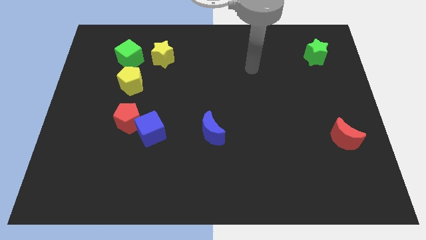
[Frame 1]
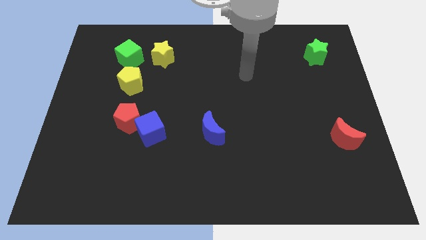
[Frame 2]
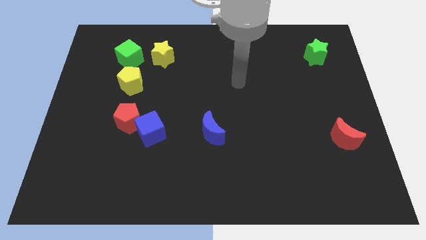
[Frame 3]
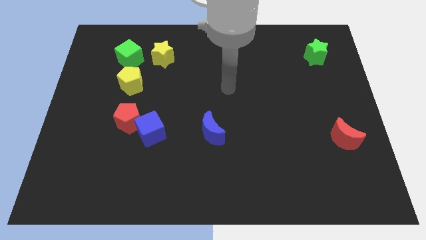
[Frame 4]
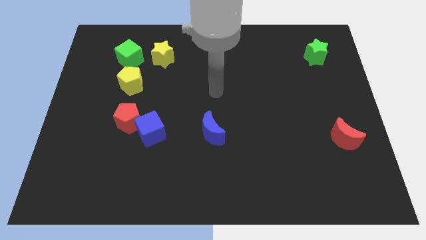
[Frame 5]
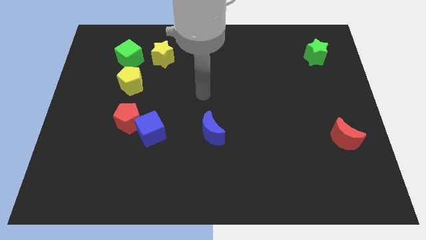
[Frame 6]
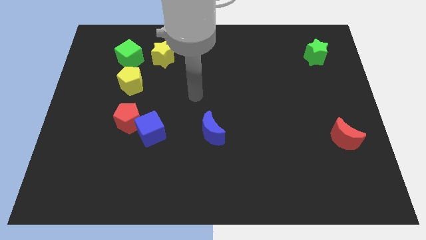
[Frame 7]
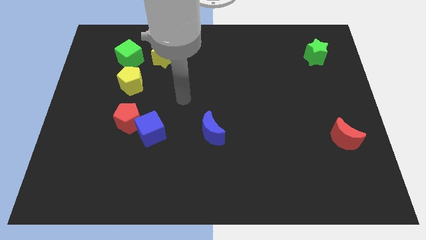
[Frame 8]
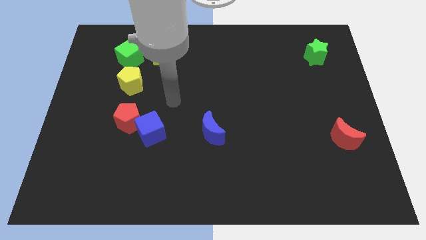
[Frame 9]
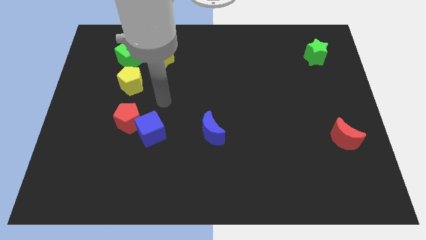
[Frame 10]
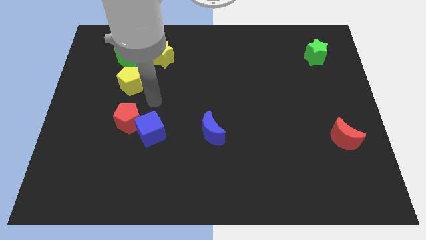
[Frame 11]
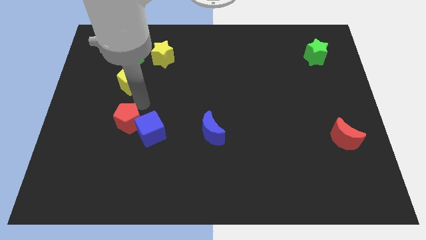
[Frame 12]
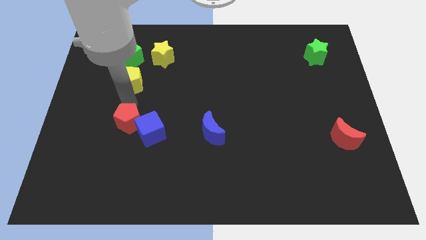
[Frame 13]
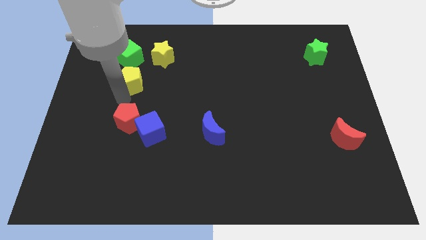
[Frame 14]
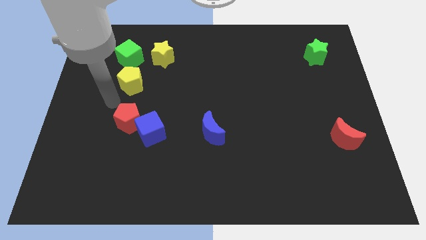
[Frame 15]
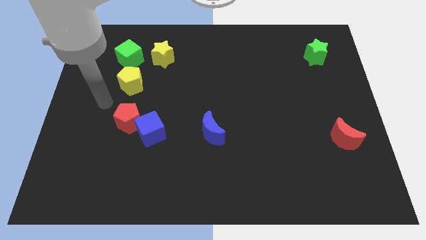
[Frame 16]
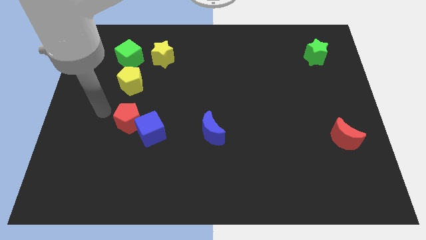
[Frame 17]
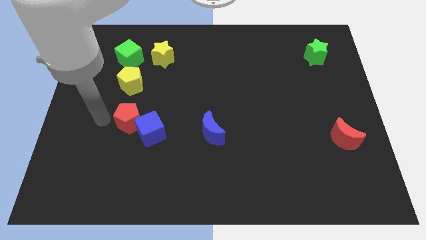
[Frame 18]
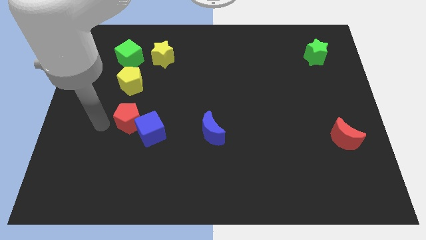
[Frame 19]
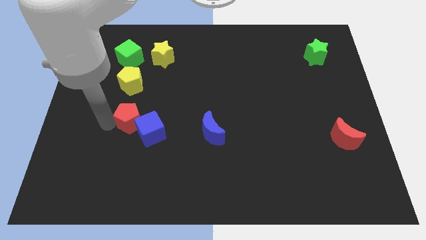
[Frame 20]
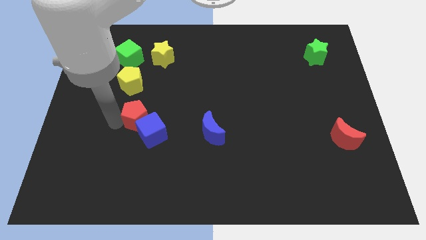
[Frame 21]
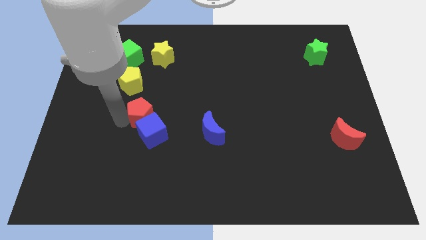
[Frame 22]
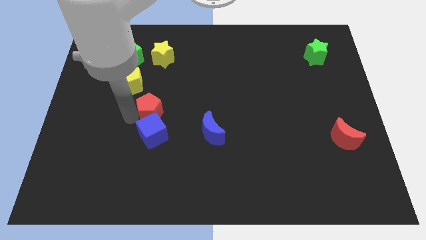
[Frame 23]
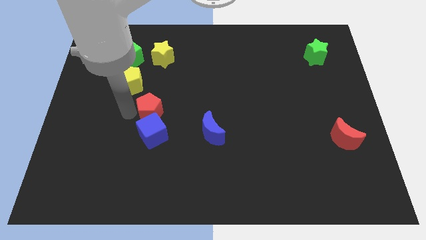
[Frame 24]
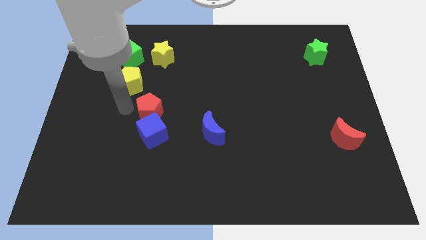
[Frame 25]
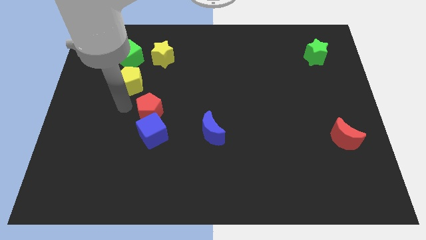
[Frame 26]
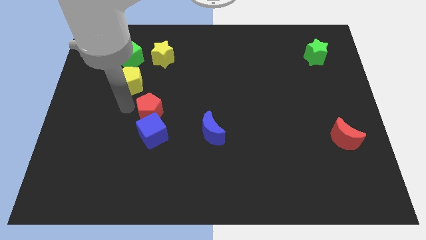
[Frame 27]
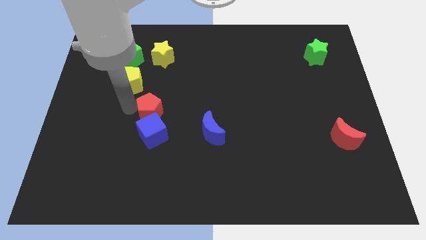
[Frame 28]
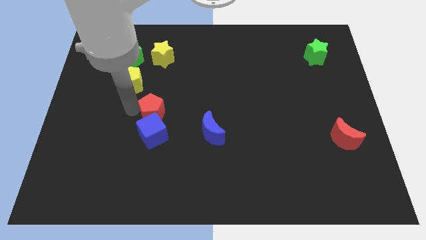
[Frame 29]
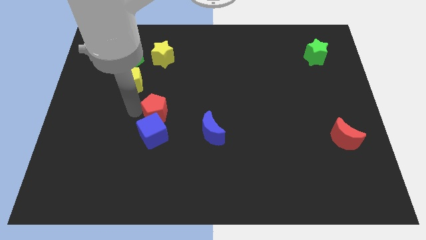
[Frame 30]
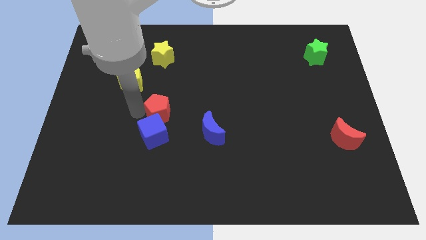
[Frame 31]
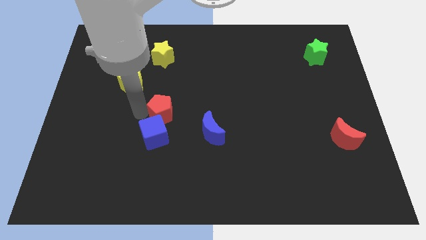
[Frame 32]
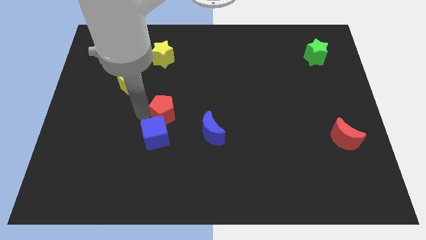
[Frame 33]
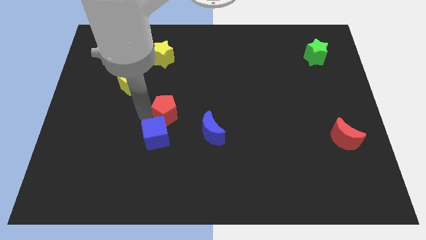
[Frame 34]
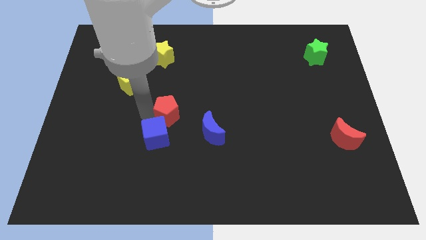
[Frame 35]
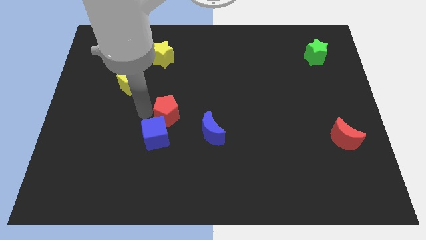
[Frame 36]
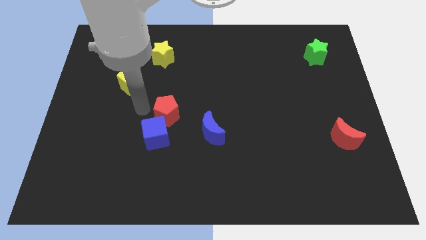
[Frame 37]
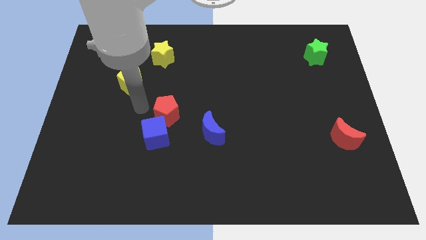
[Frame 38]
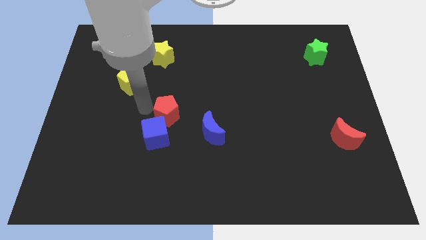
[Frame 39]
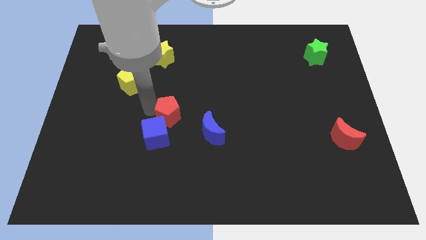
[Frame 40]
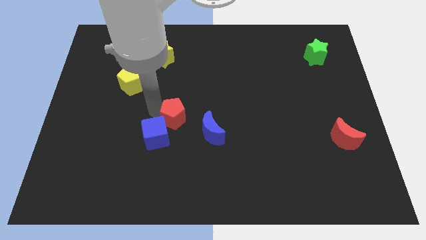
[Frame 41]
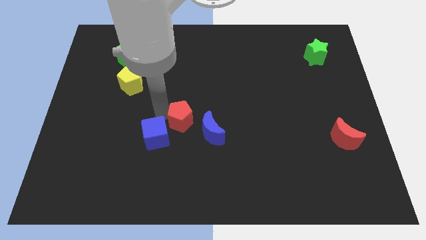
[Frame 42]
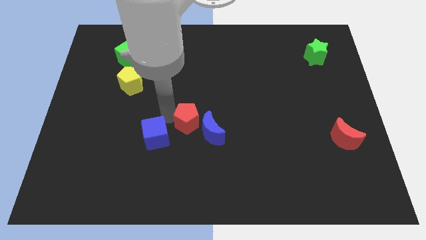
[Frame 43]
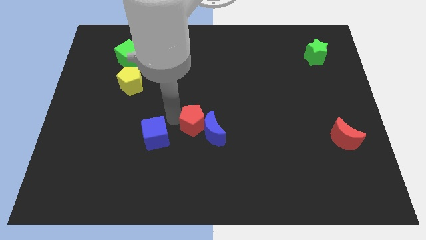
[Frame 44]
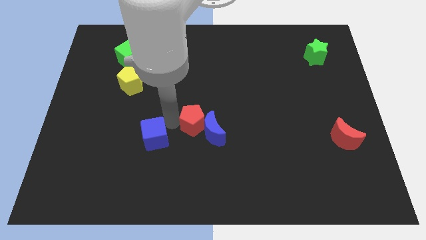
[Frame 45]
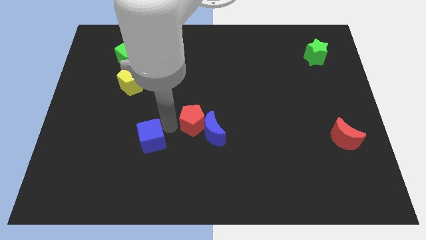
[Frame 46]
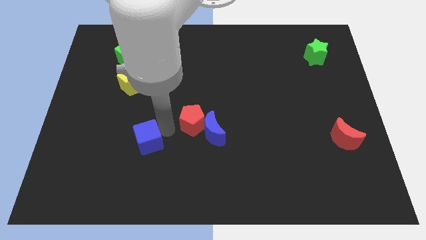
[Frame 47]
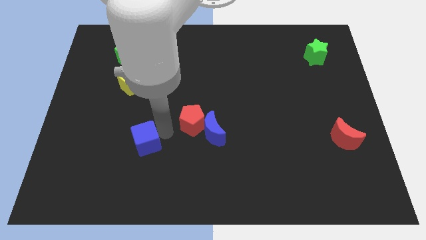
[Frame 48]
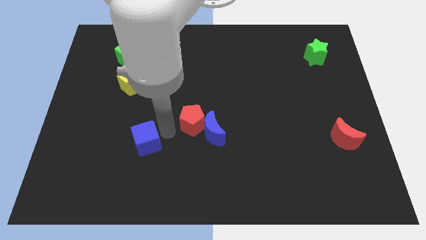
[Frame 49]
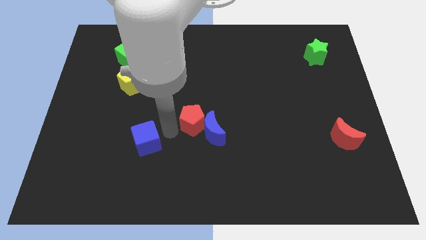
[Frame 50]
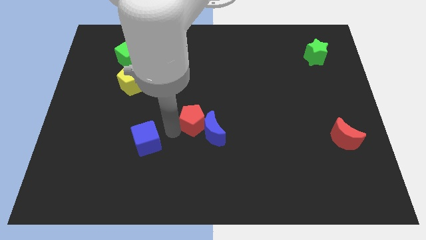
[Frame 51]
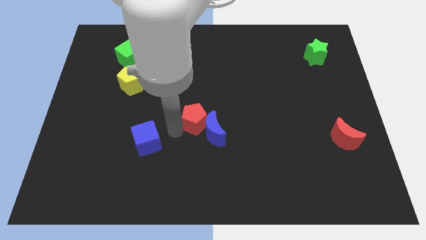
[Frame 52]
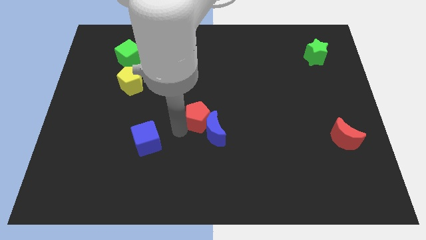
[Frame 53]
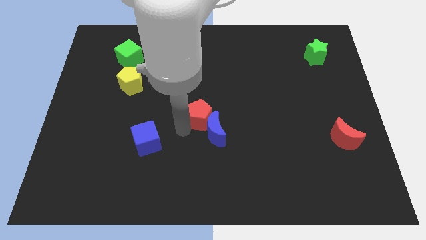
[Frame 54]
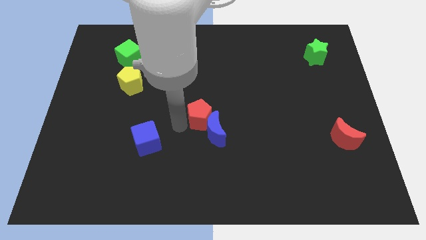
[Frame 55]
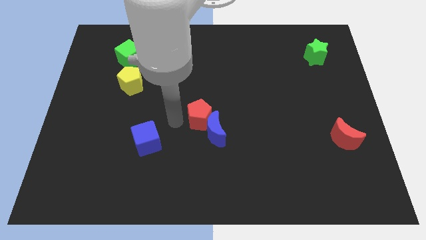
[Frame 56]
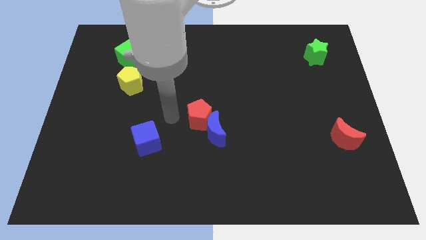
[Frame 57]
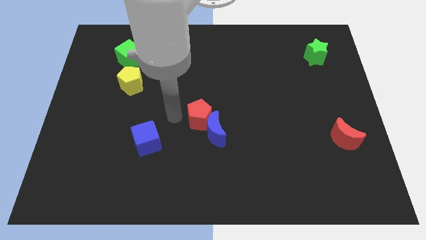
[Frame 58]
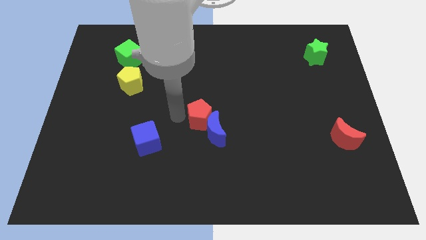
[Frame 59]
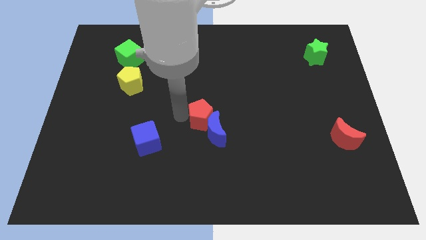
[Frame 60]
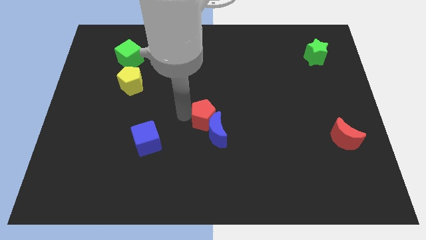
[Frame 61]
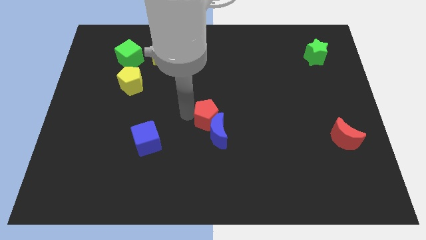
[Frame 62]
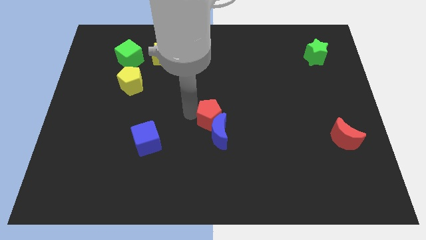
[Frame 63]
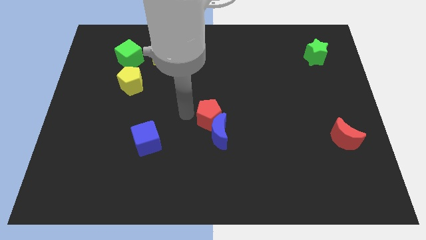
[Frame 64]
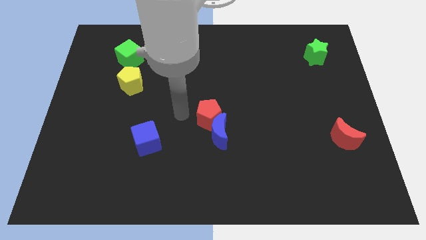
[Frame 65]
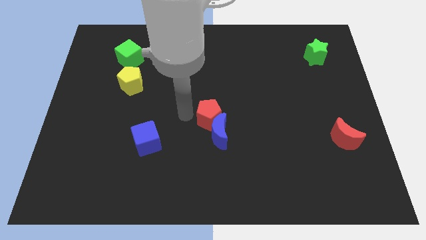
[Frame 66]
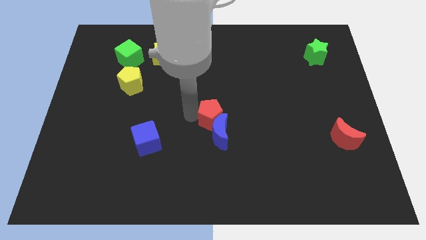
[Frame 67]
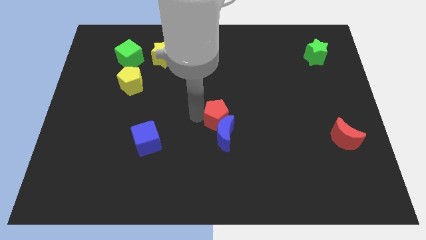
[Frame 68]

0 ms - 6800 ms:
push the red pentagon to the right

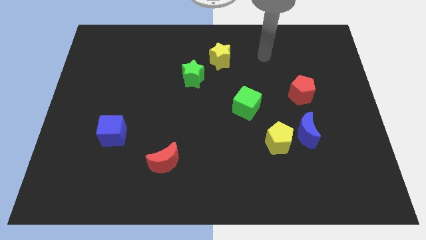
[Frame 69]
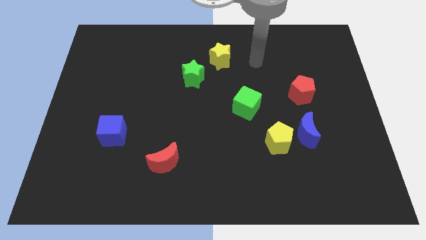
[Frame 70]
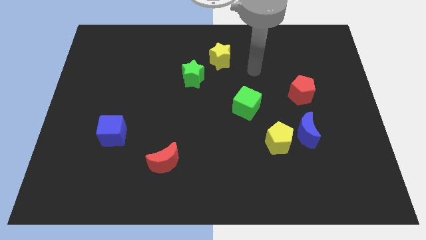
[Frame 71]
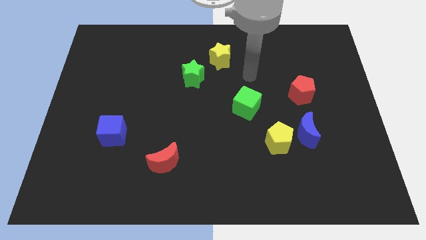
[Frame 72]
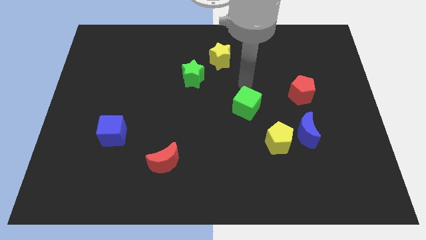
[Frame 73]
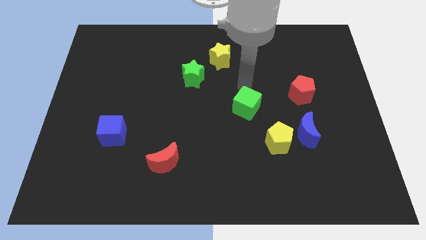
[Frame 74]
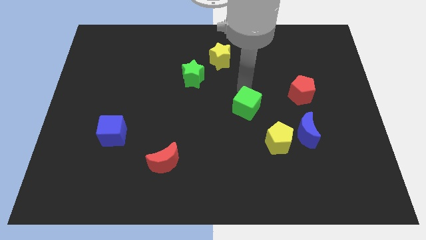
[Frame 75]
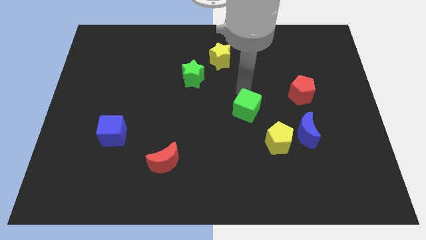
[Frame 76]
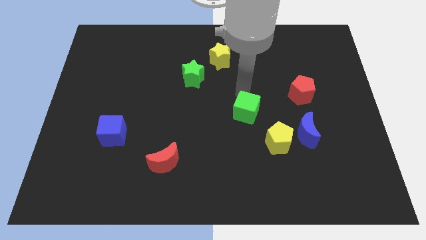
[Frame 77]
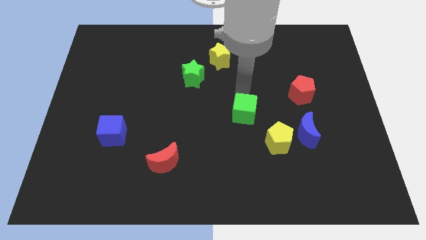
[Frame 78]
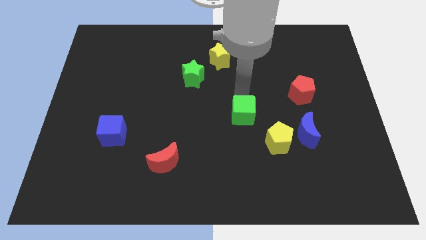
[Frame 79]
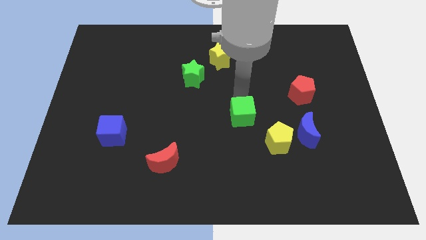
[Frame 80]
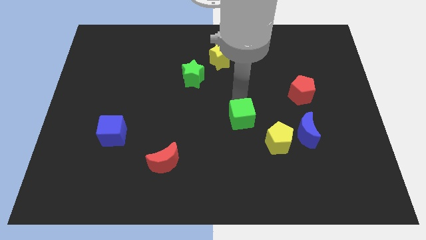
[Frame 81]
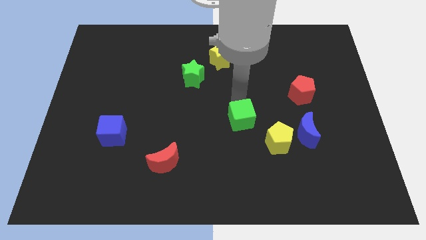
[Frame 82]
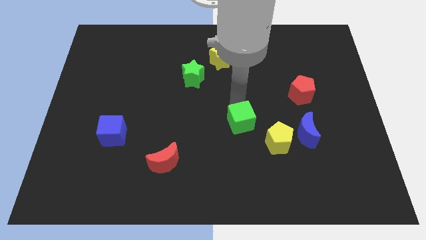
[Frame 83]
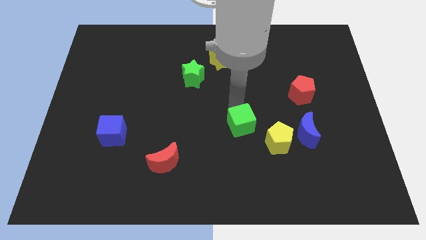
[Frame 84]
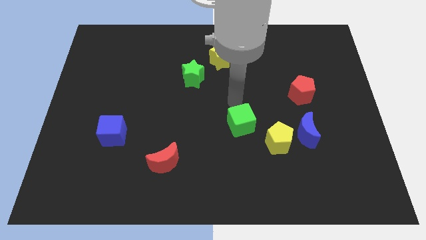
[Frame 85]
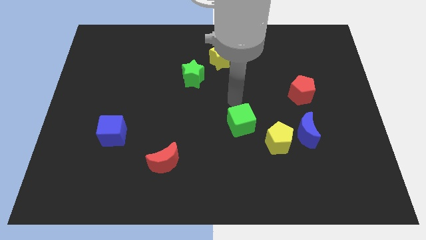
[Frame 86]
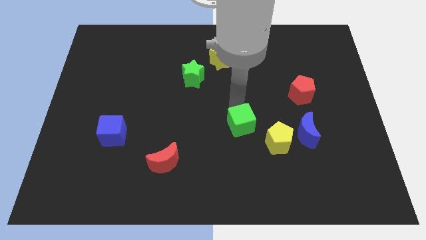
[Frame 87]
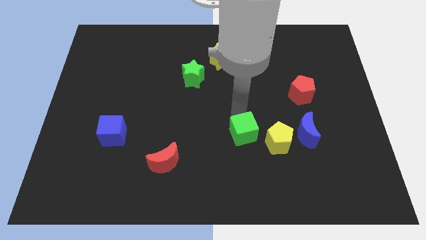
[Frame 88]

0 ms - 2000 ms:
slide the green cube down slightly
